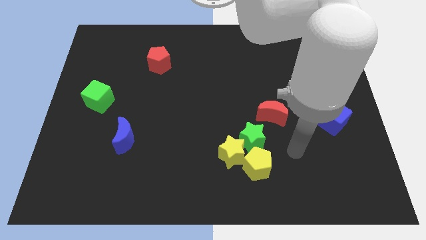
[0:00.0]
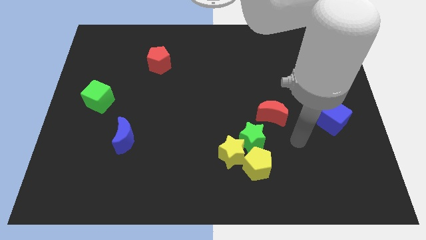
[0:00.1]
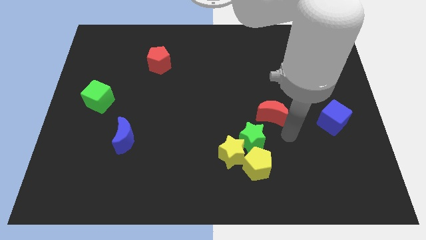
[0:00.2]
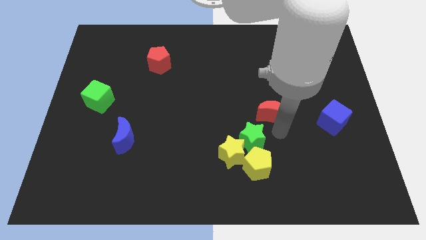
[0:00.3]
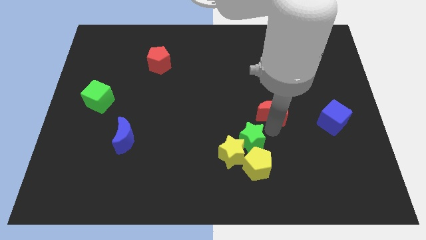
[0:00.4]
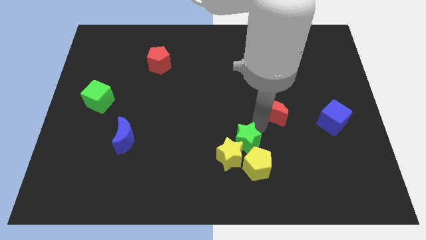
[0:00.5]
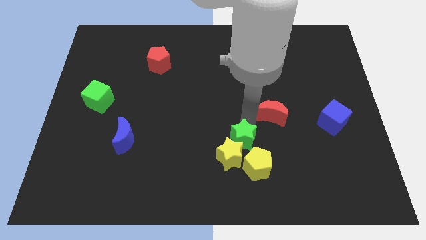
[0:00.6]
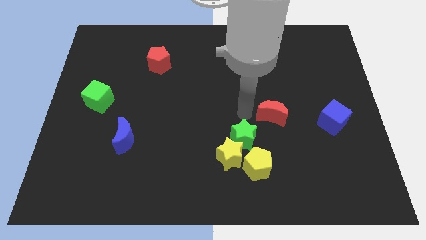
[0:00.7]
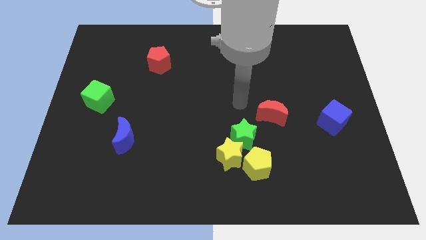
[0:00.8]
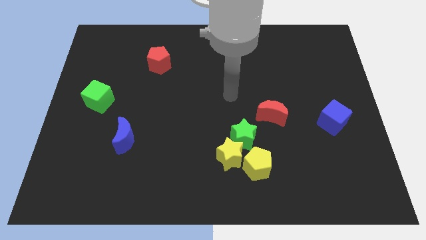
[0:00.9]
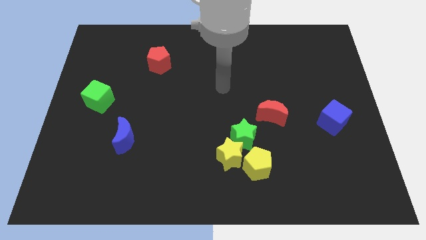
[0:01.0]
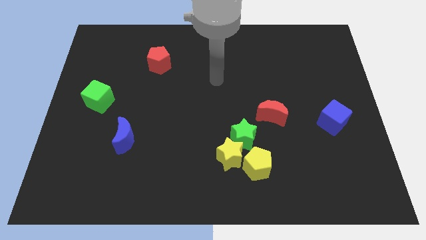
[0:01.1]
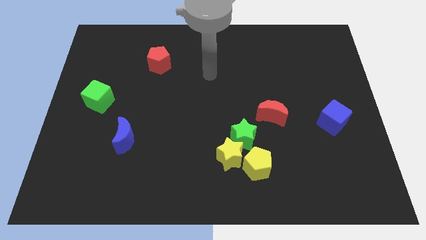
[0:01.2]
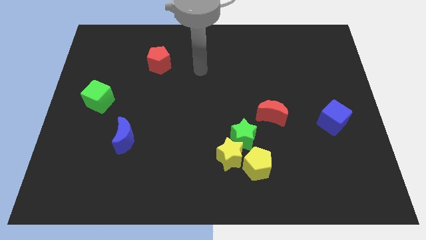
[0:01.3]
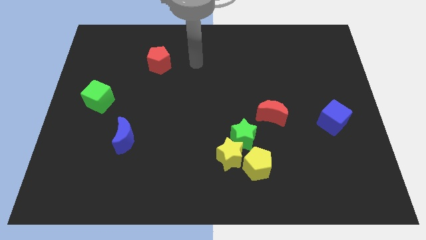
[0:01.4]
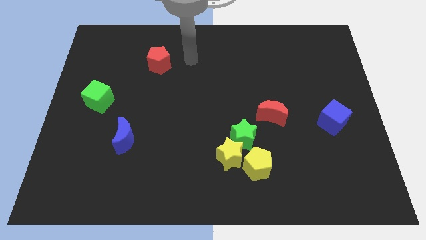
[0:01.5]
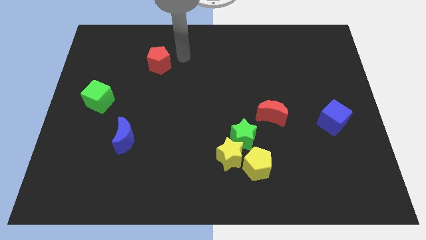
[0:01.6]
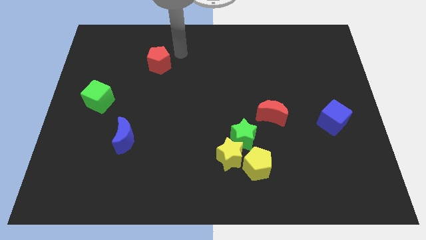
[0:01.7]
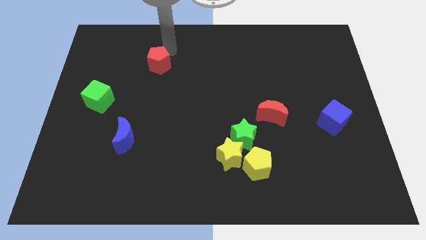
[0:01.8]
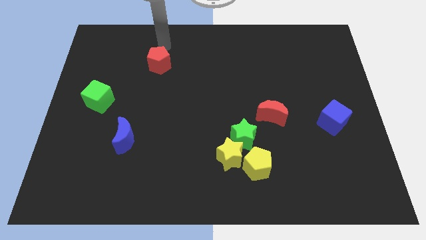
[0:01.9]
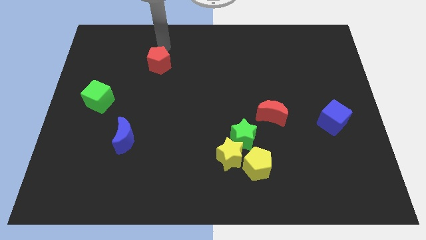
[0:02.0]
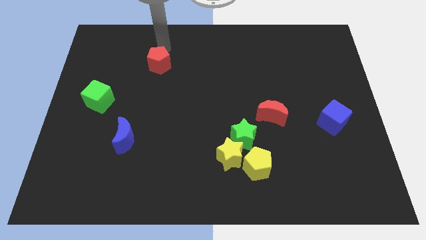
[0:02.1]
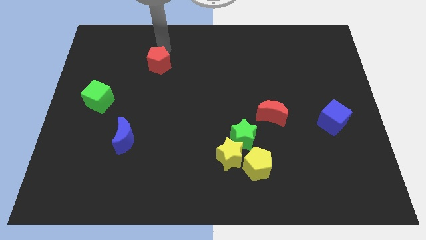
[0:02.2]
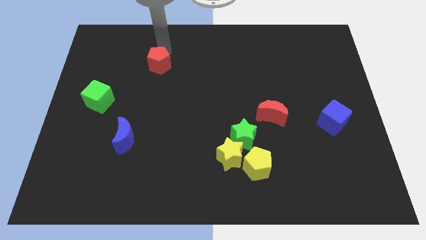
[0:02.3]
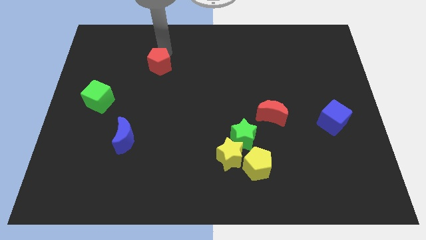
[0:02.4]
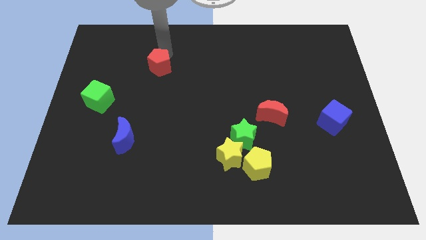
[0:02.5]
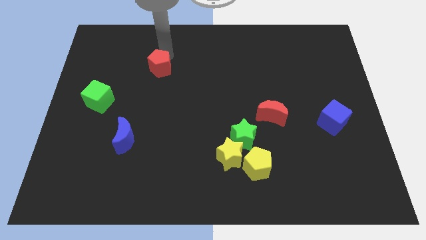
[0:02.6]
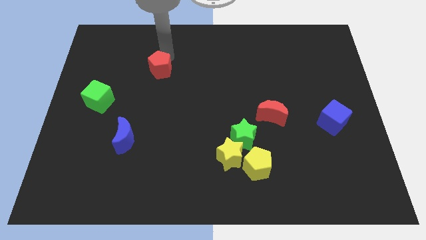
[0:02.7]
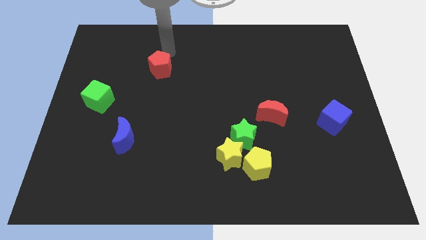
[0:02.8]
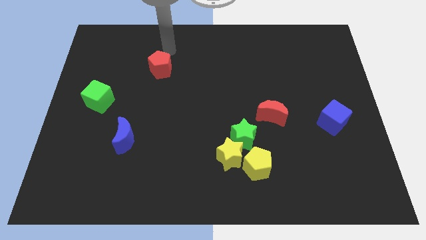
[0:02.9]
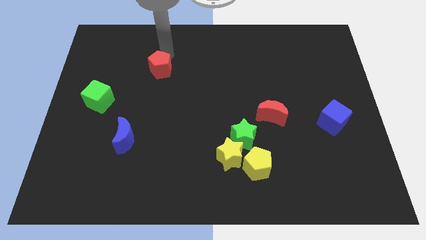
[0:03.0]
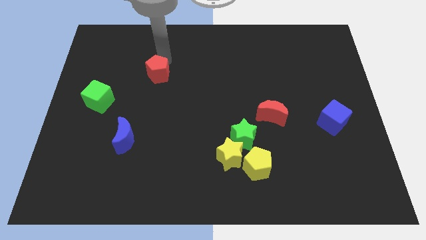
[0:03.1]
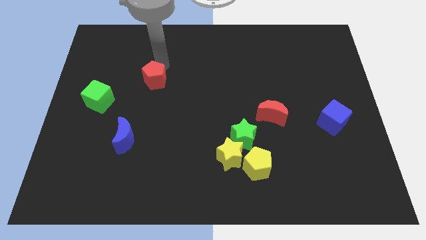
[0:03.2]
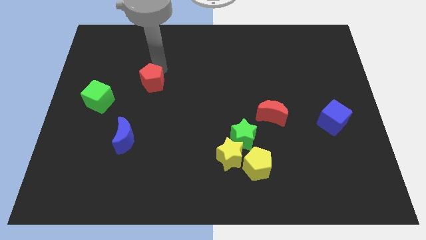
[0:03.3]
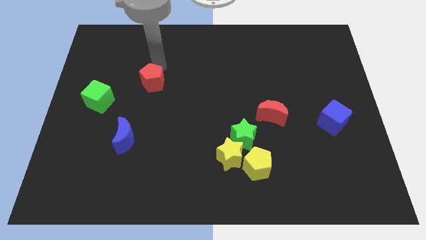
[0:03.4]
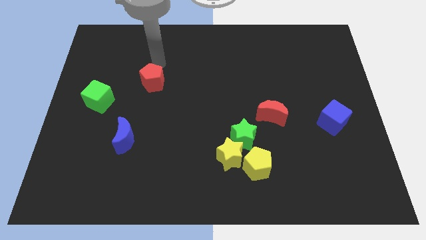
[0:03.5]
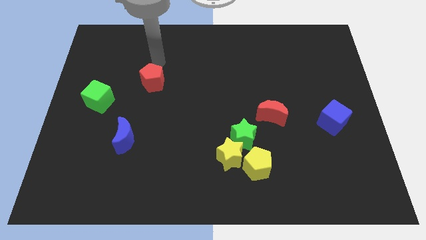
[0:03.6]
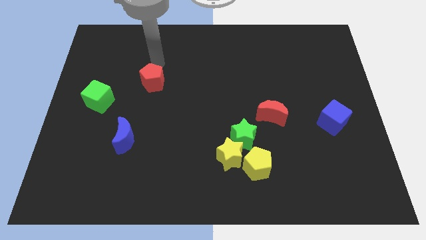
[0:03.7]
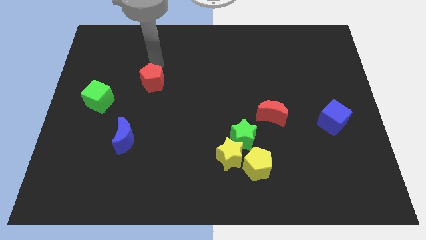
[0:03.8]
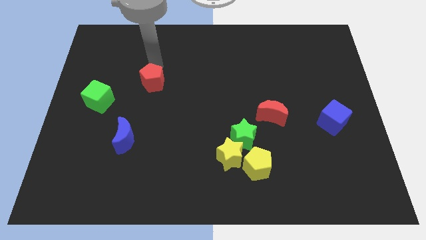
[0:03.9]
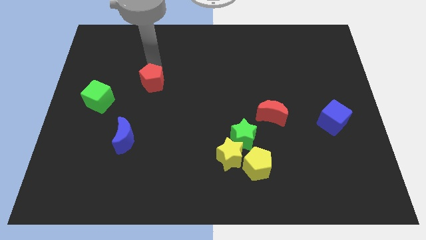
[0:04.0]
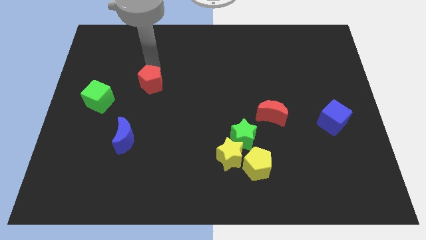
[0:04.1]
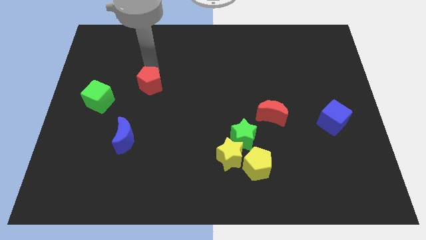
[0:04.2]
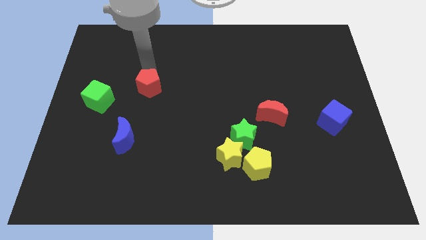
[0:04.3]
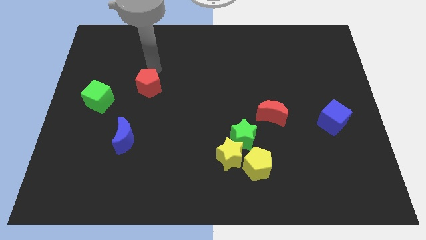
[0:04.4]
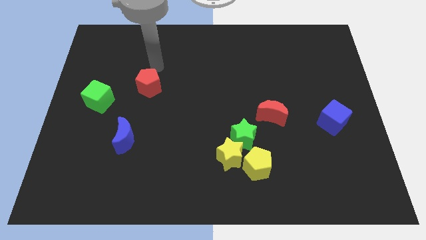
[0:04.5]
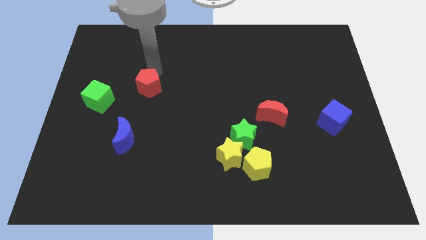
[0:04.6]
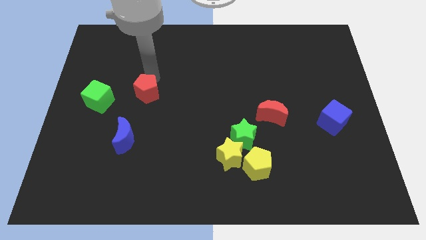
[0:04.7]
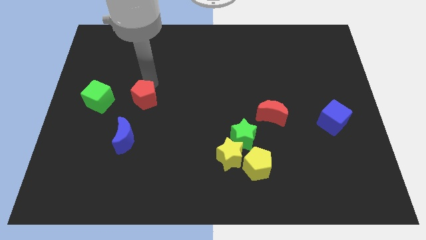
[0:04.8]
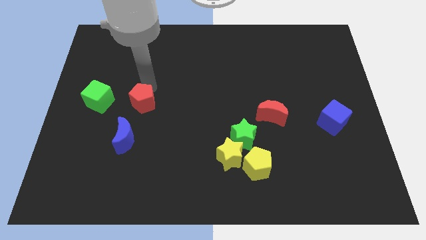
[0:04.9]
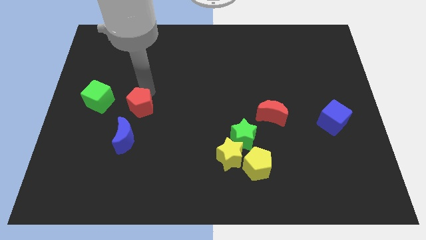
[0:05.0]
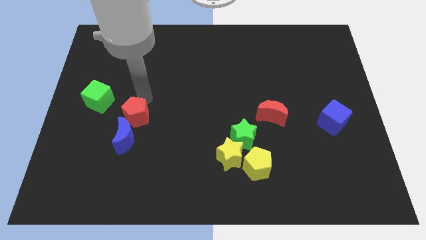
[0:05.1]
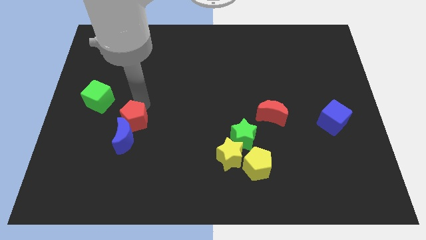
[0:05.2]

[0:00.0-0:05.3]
slide the red pentagon close to the blue moon

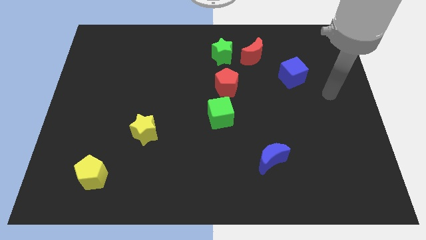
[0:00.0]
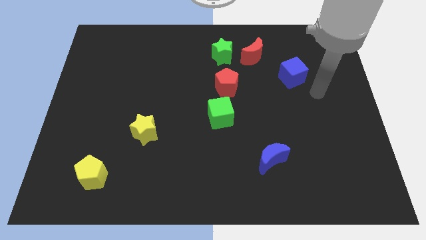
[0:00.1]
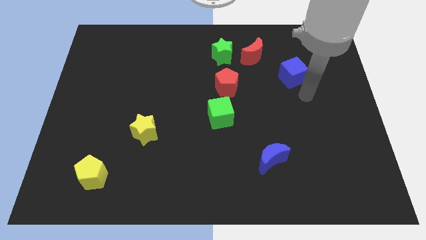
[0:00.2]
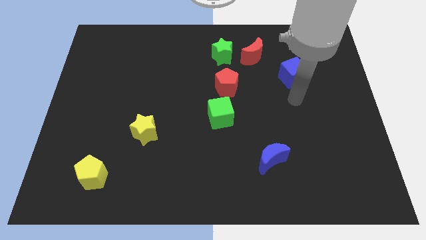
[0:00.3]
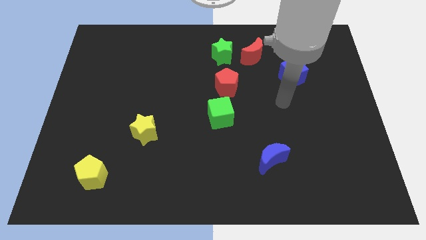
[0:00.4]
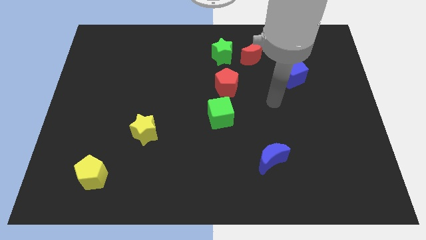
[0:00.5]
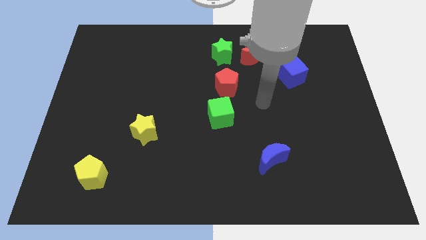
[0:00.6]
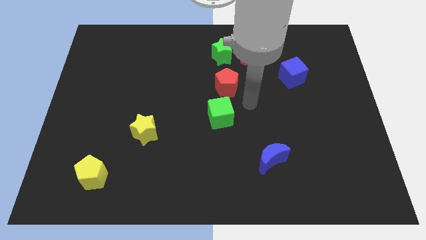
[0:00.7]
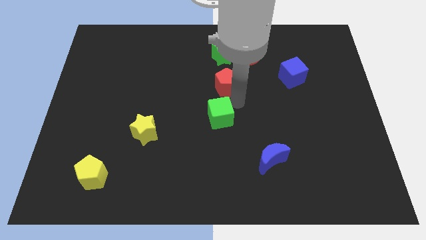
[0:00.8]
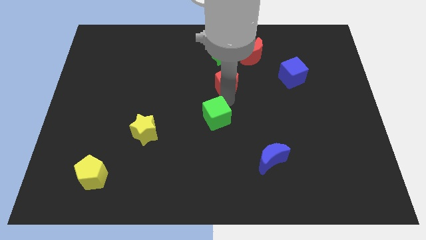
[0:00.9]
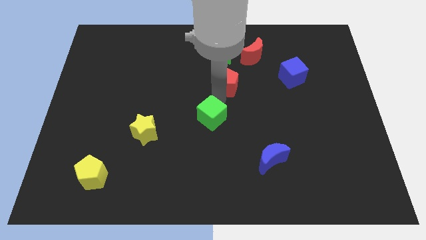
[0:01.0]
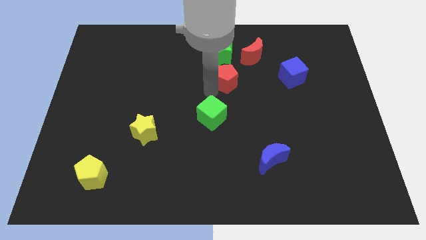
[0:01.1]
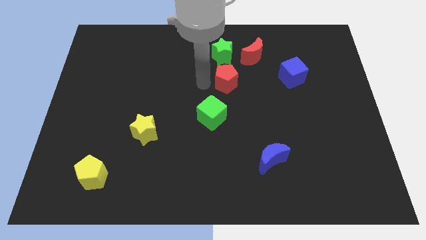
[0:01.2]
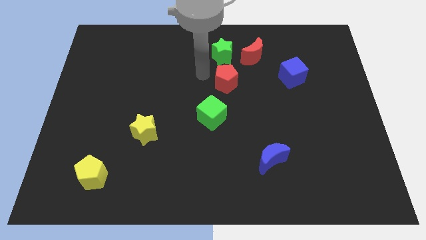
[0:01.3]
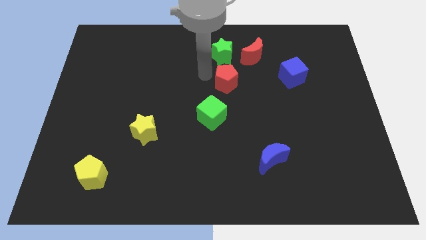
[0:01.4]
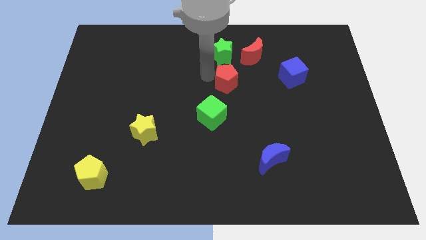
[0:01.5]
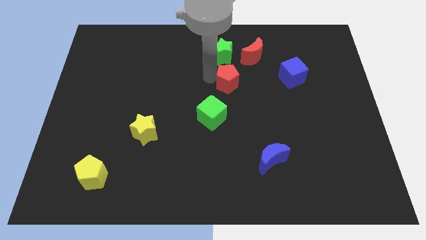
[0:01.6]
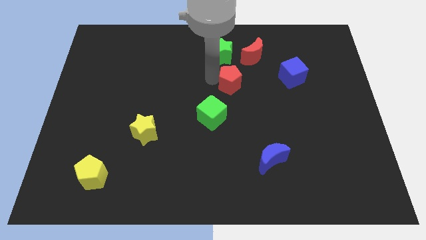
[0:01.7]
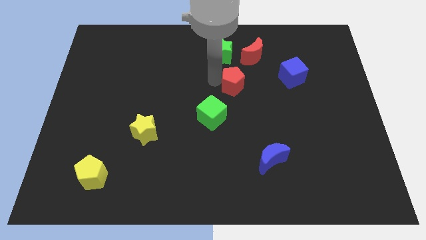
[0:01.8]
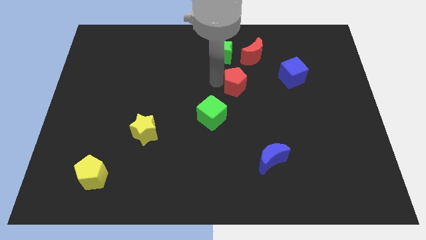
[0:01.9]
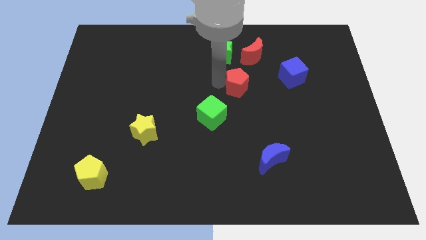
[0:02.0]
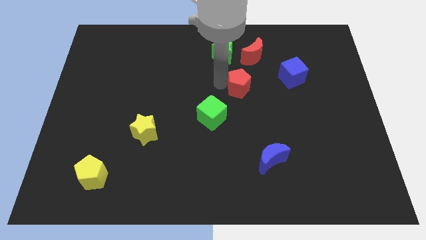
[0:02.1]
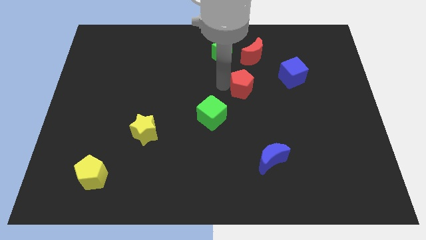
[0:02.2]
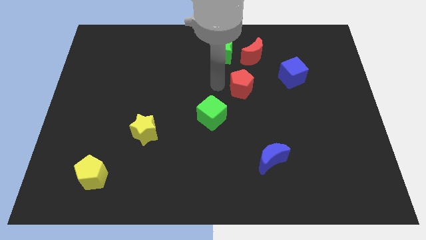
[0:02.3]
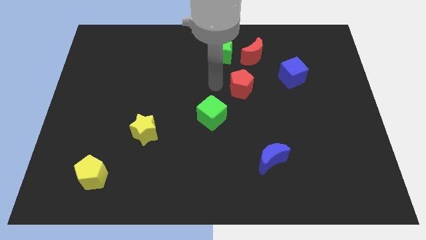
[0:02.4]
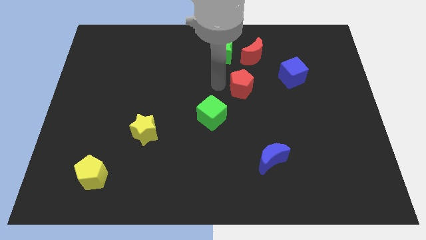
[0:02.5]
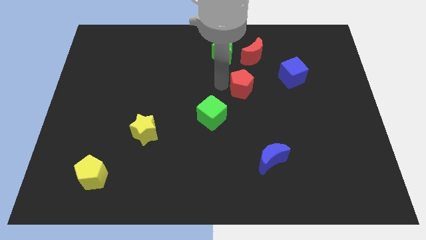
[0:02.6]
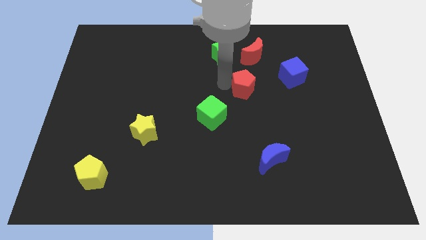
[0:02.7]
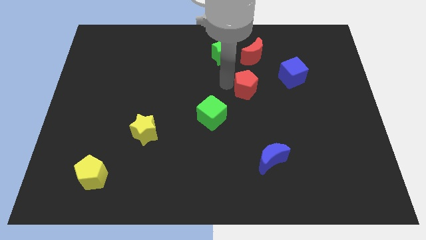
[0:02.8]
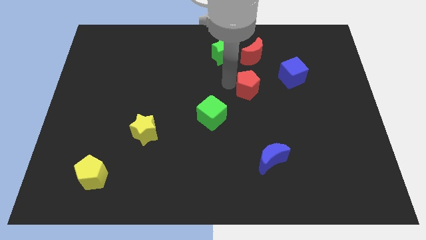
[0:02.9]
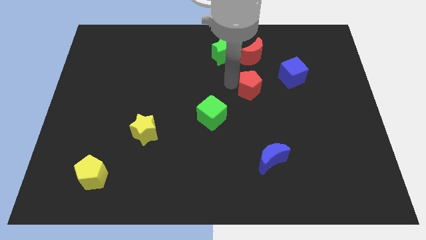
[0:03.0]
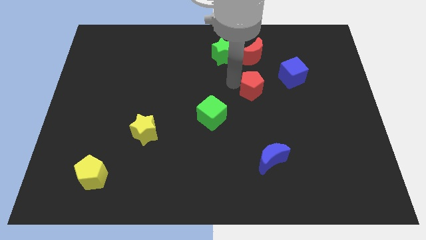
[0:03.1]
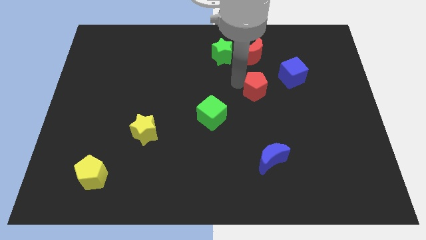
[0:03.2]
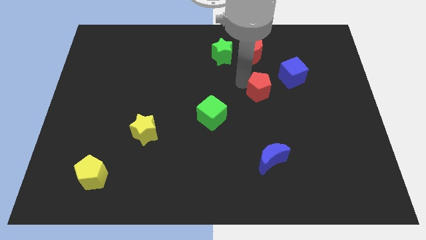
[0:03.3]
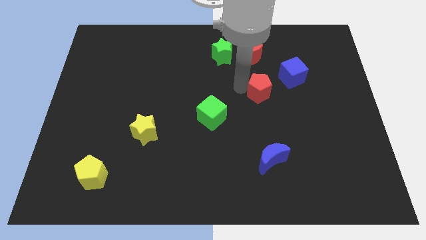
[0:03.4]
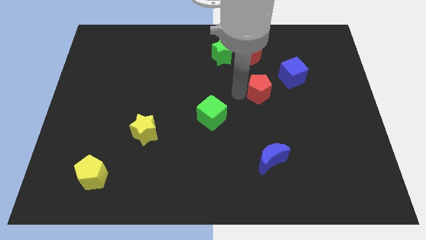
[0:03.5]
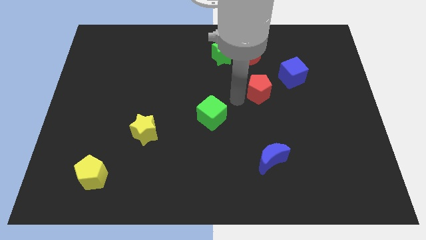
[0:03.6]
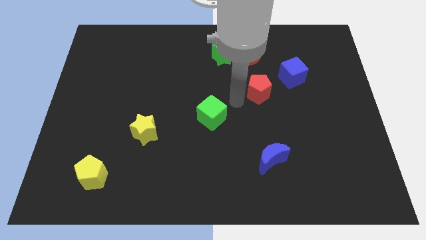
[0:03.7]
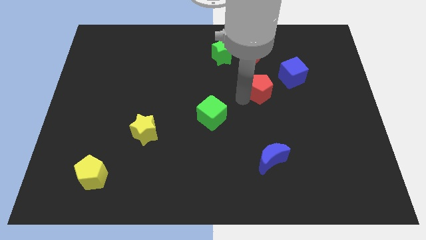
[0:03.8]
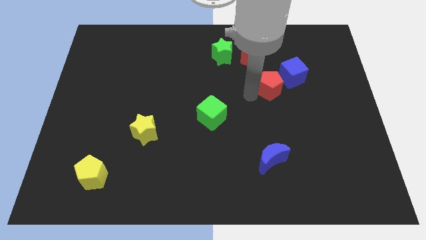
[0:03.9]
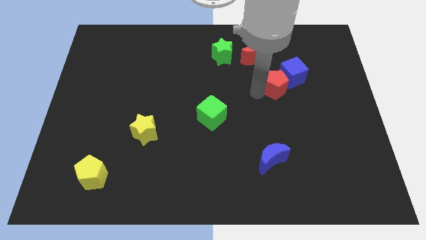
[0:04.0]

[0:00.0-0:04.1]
move the red pentagon to the blue cube
